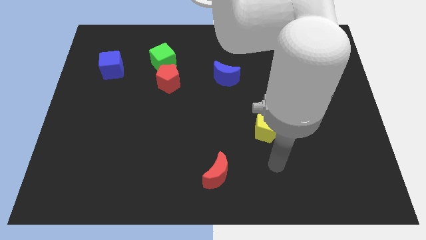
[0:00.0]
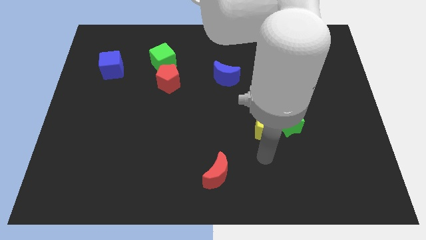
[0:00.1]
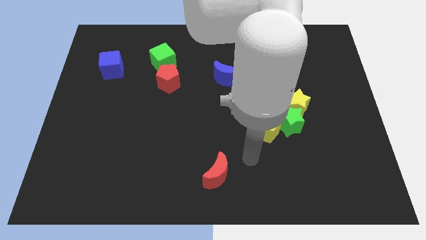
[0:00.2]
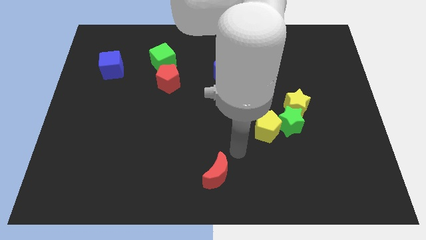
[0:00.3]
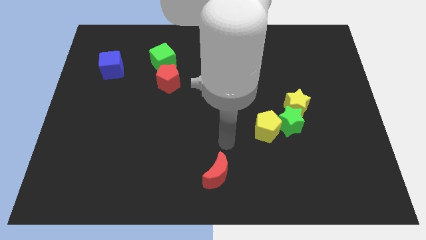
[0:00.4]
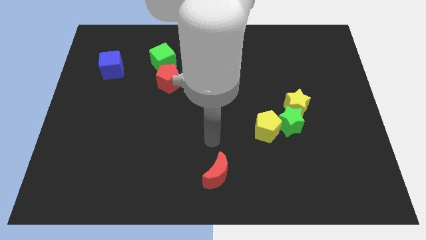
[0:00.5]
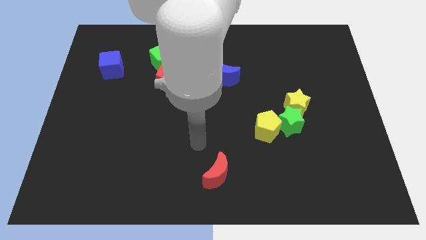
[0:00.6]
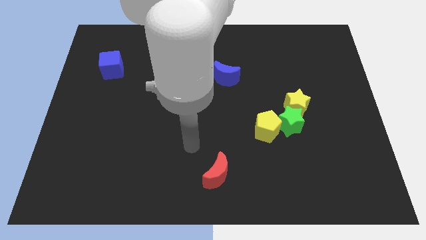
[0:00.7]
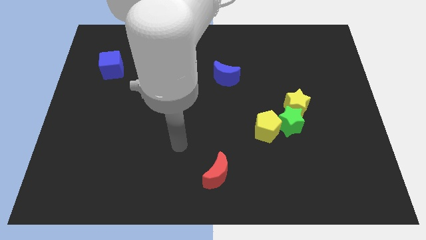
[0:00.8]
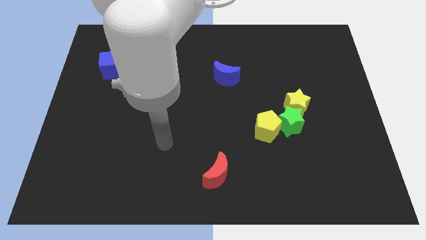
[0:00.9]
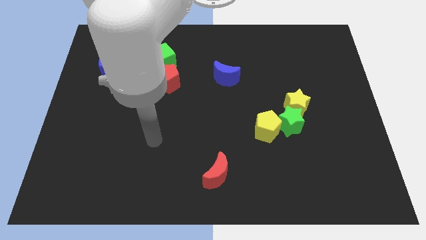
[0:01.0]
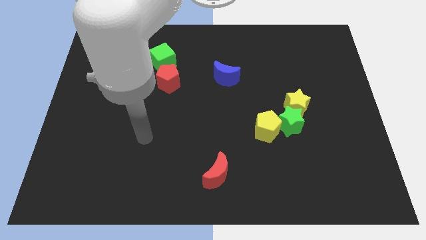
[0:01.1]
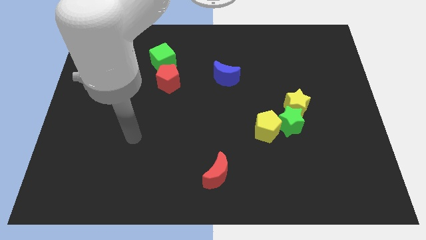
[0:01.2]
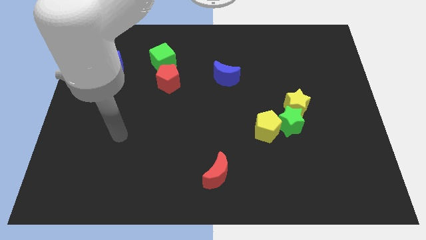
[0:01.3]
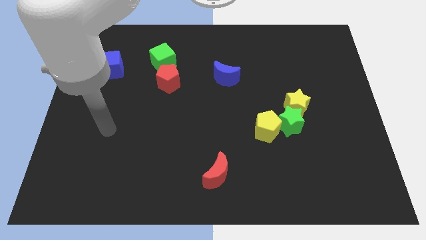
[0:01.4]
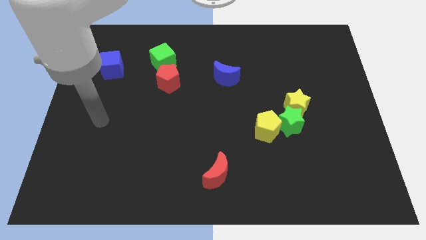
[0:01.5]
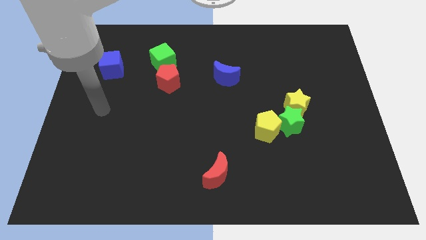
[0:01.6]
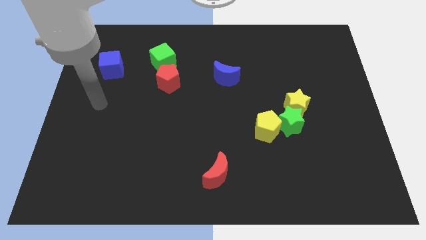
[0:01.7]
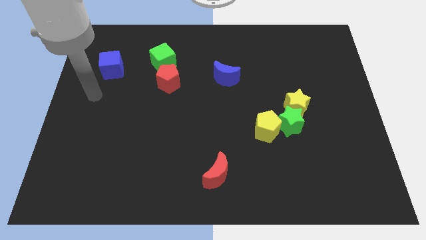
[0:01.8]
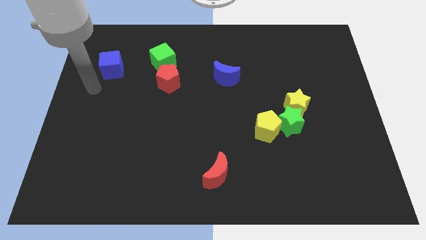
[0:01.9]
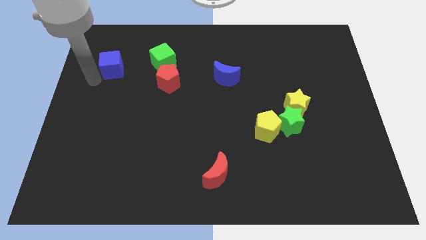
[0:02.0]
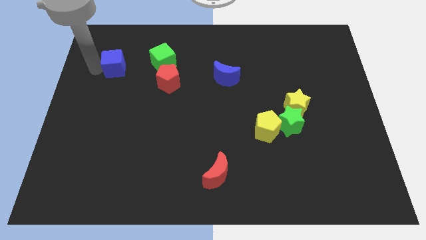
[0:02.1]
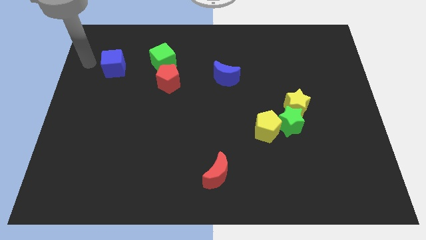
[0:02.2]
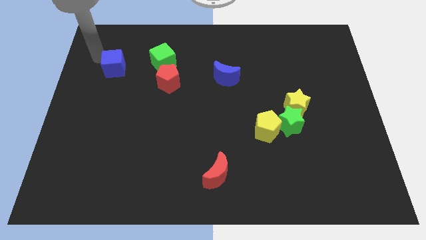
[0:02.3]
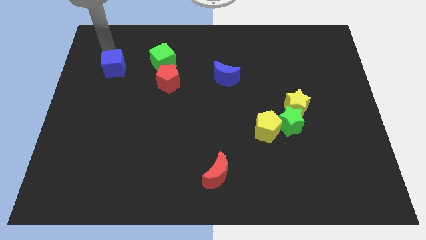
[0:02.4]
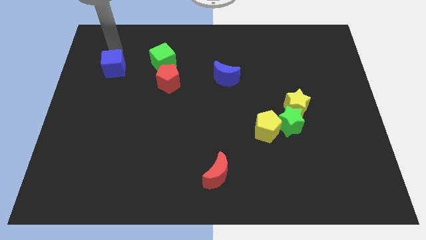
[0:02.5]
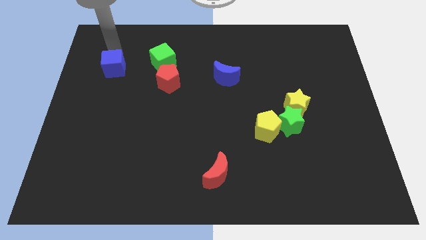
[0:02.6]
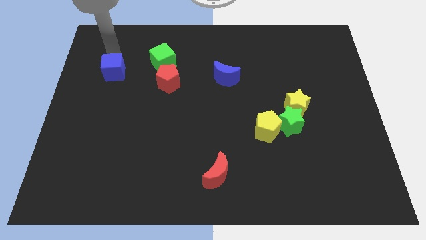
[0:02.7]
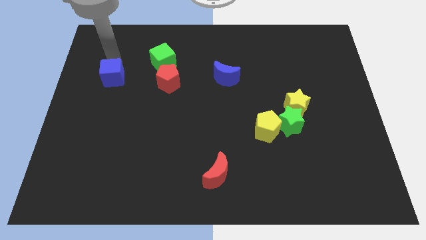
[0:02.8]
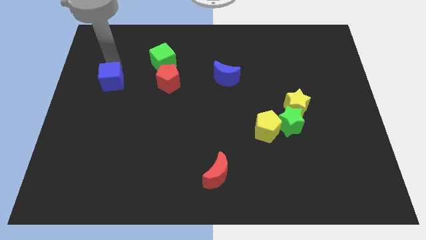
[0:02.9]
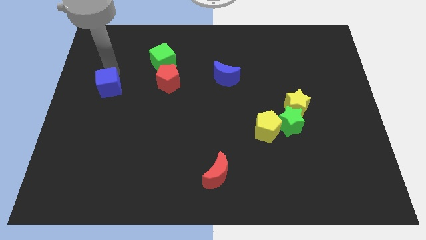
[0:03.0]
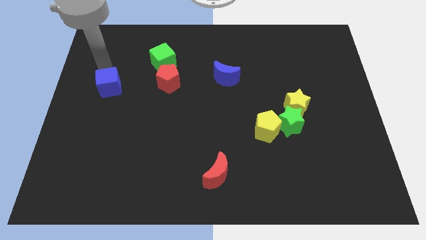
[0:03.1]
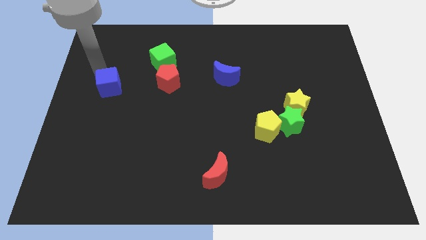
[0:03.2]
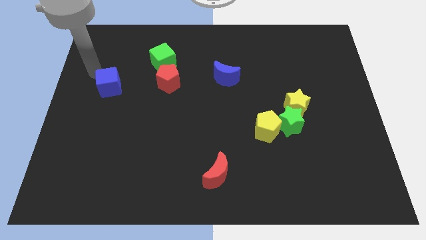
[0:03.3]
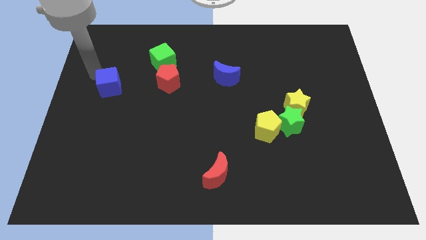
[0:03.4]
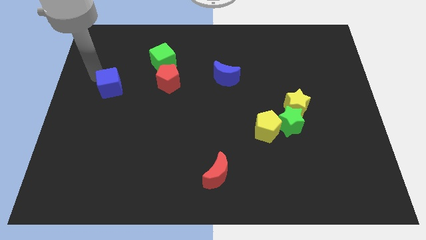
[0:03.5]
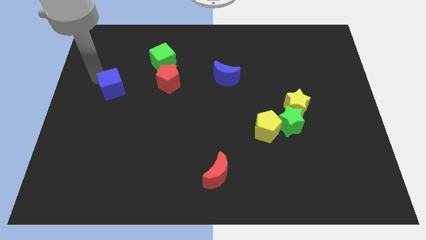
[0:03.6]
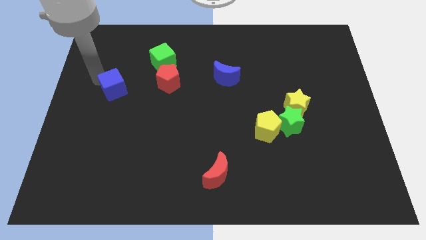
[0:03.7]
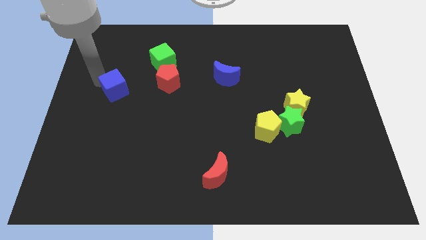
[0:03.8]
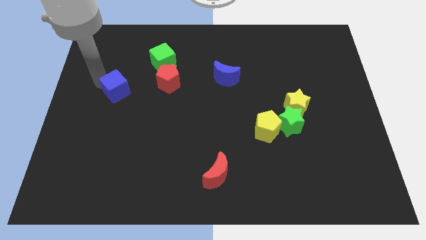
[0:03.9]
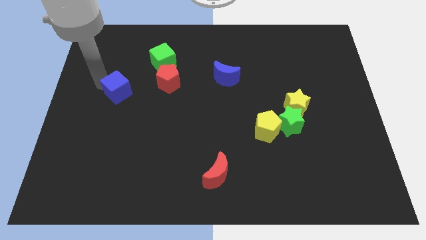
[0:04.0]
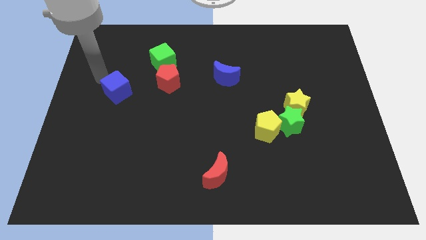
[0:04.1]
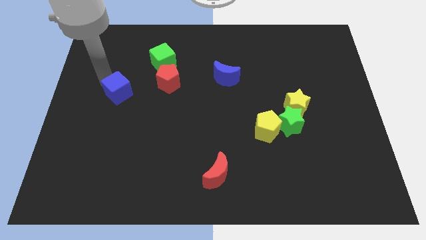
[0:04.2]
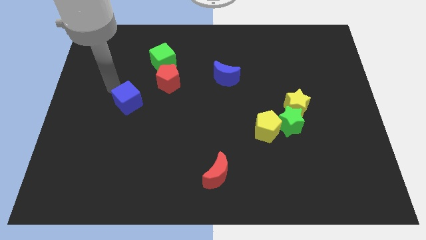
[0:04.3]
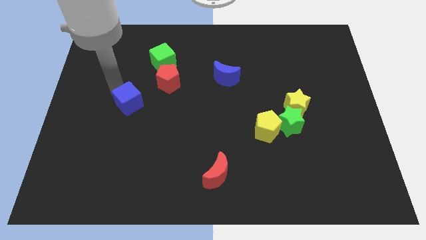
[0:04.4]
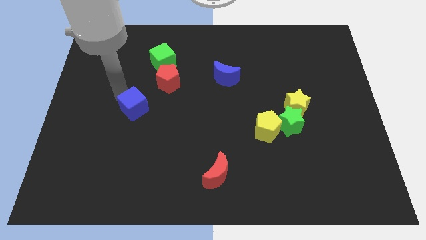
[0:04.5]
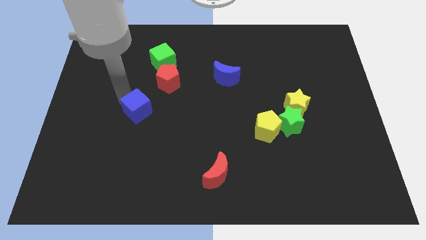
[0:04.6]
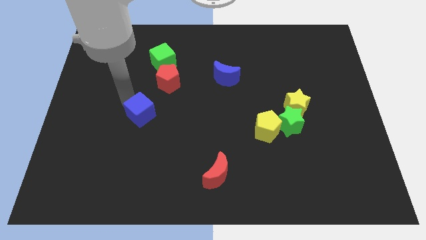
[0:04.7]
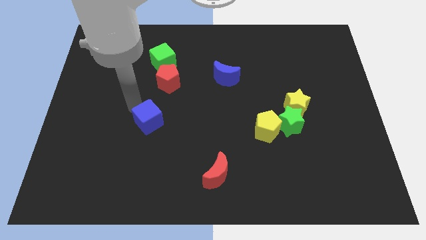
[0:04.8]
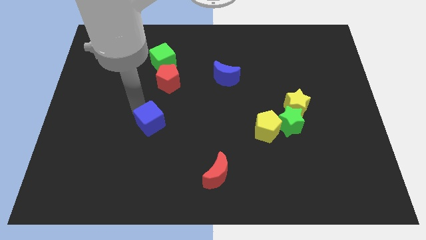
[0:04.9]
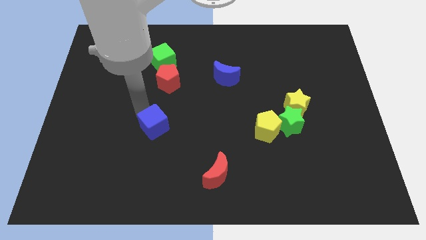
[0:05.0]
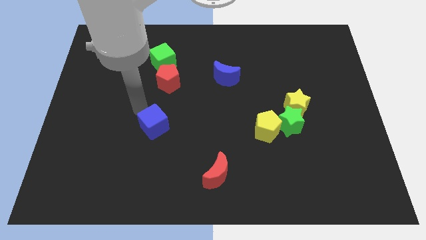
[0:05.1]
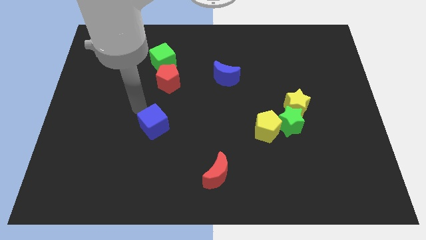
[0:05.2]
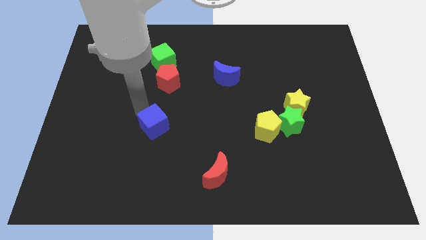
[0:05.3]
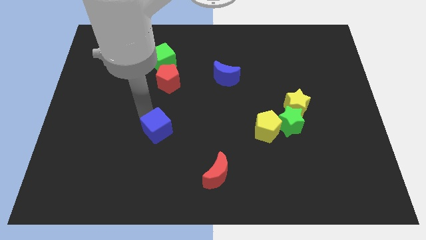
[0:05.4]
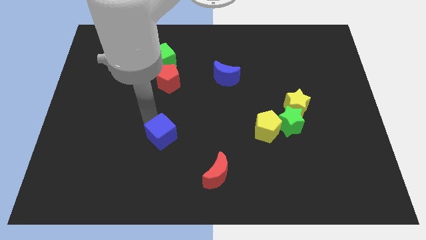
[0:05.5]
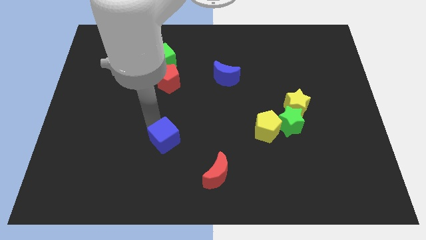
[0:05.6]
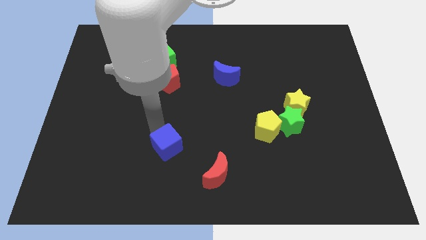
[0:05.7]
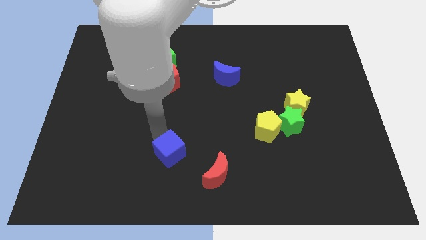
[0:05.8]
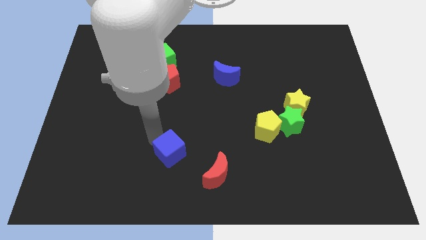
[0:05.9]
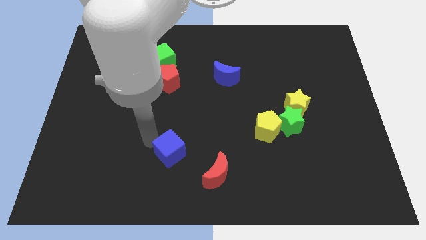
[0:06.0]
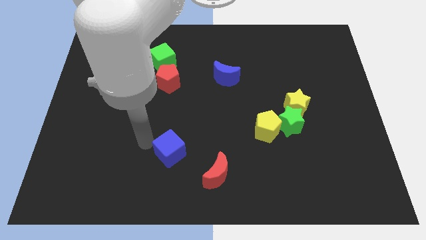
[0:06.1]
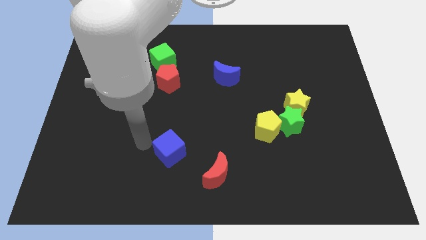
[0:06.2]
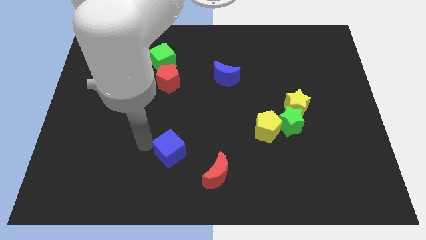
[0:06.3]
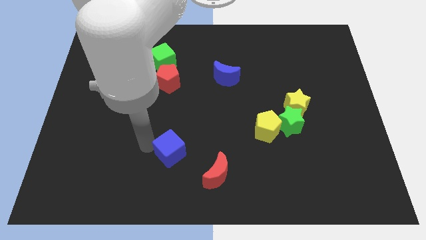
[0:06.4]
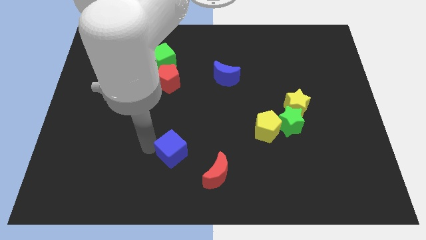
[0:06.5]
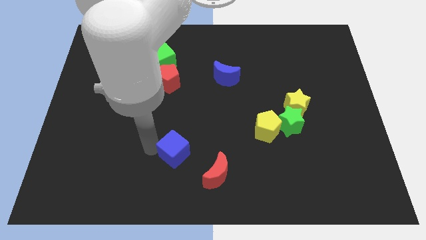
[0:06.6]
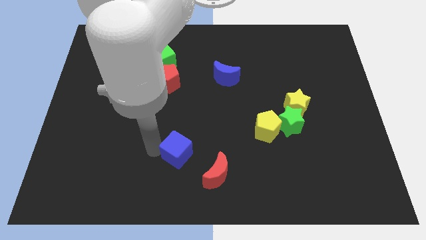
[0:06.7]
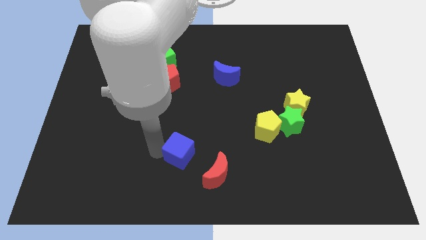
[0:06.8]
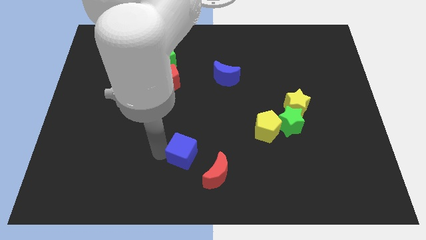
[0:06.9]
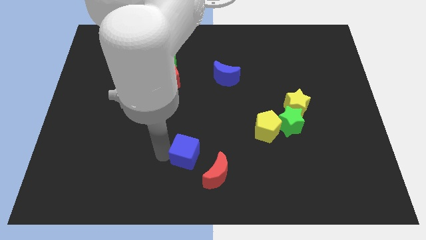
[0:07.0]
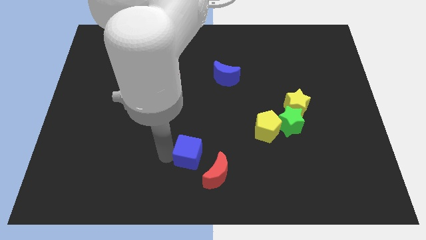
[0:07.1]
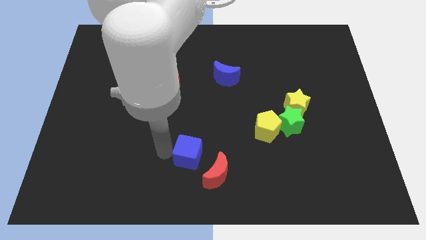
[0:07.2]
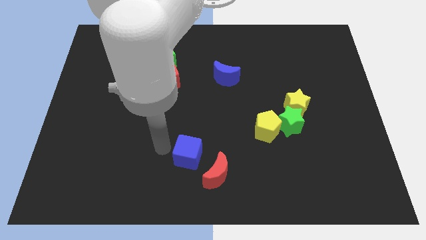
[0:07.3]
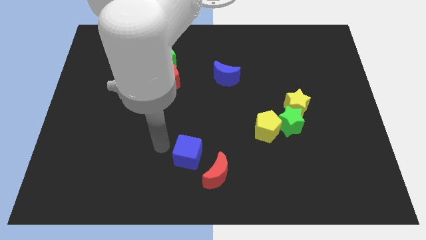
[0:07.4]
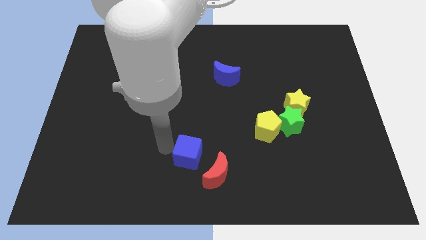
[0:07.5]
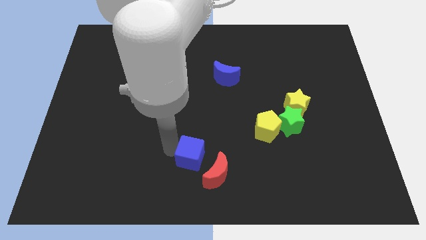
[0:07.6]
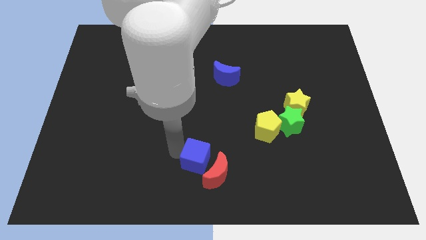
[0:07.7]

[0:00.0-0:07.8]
move the blue cube close to the red moon

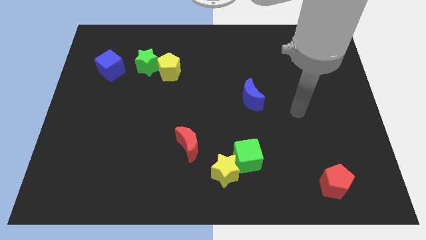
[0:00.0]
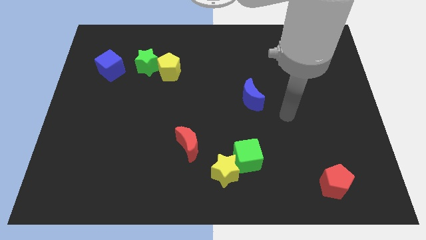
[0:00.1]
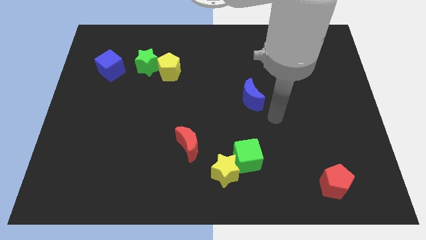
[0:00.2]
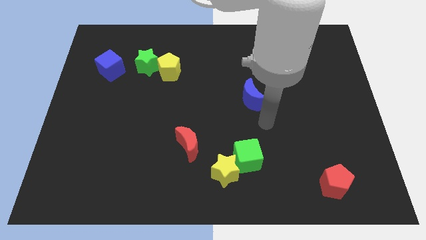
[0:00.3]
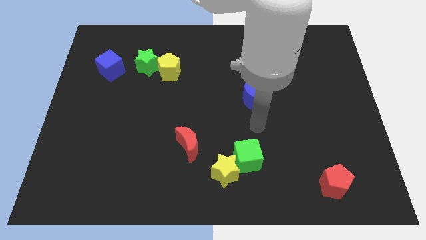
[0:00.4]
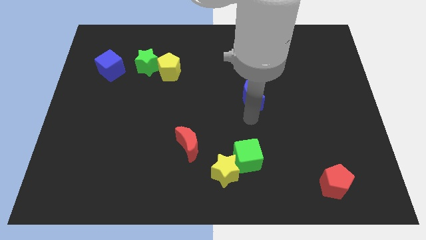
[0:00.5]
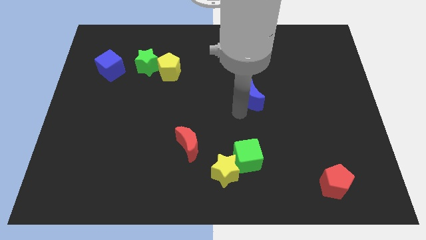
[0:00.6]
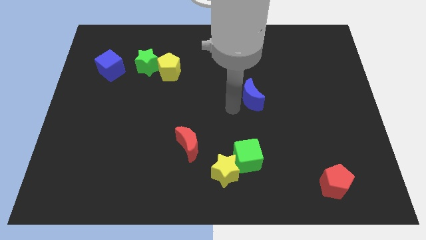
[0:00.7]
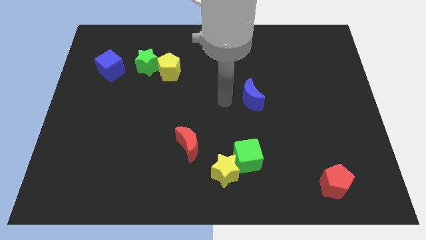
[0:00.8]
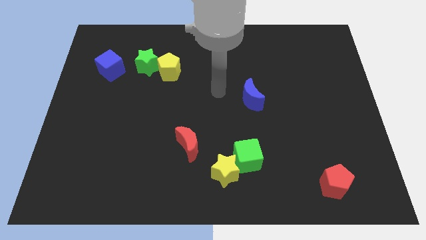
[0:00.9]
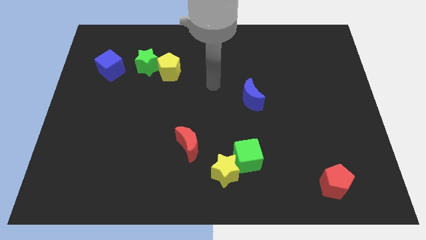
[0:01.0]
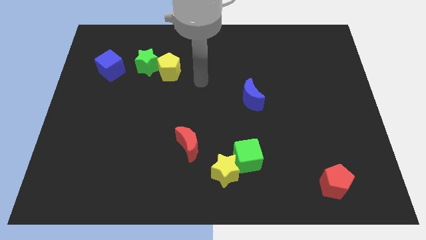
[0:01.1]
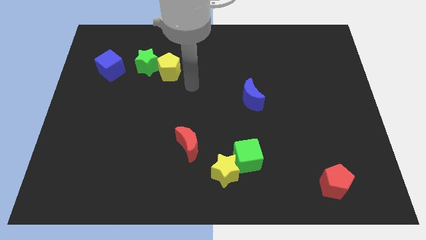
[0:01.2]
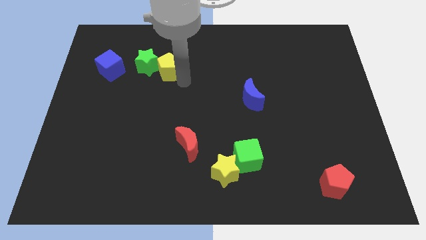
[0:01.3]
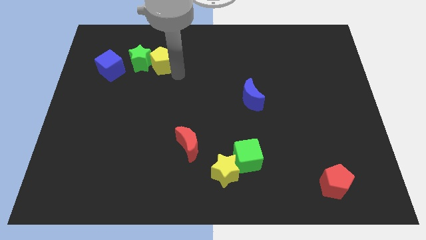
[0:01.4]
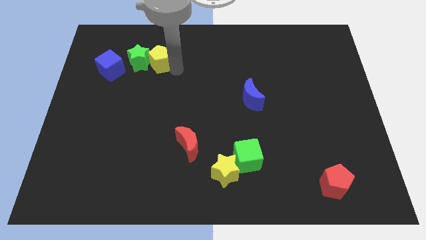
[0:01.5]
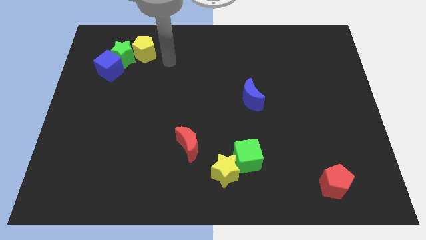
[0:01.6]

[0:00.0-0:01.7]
move the green star towards the blue cube
